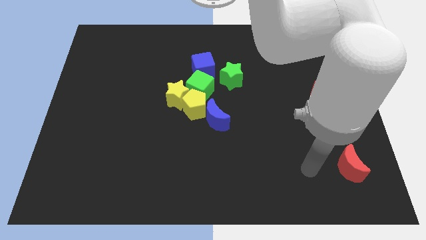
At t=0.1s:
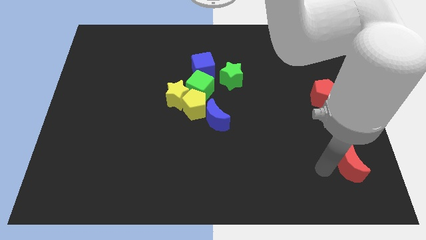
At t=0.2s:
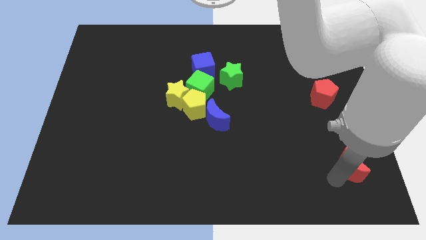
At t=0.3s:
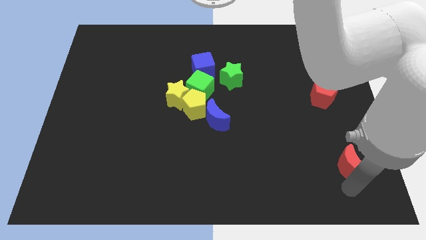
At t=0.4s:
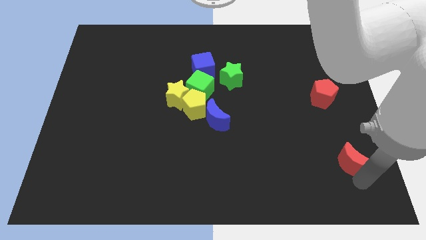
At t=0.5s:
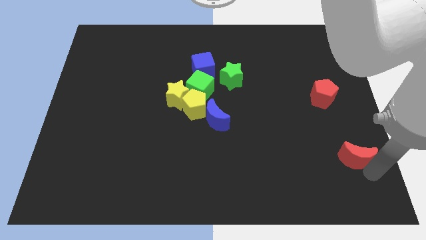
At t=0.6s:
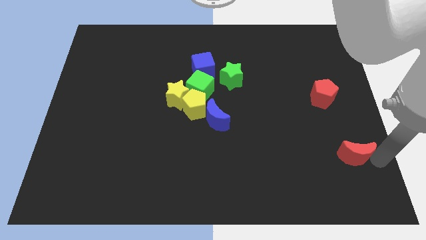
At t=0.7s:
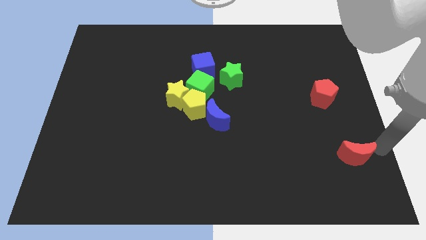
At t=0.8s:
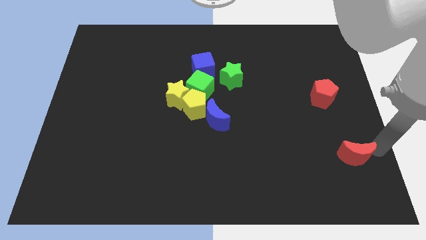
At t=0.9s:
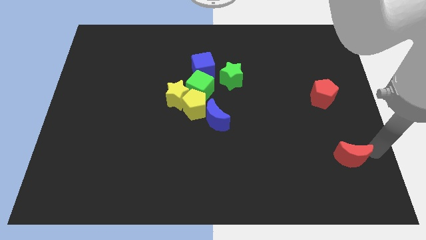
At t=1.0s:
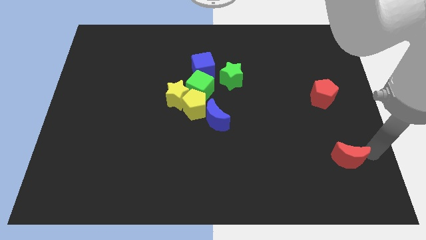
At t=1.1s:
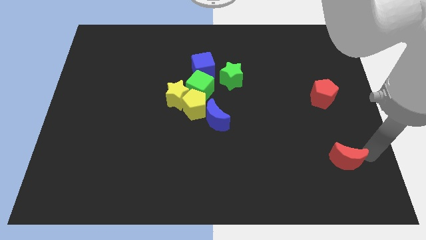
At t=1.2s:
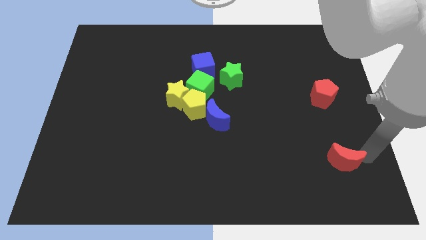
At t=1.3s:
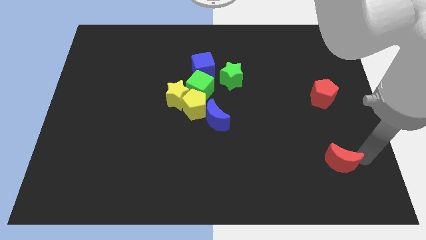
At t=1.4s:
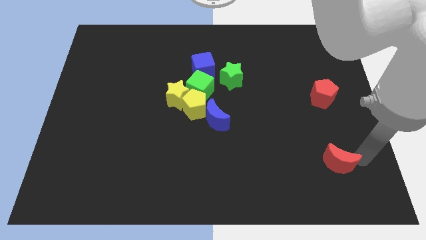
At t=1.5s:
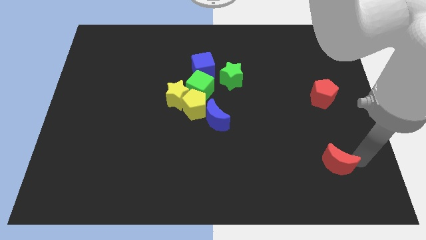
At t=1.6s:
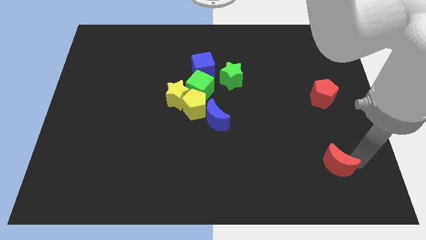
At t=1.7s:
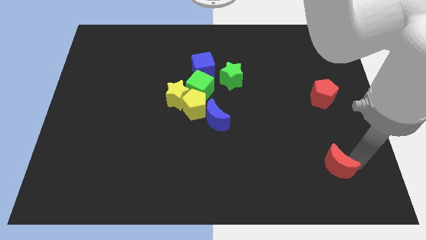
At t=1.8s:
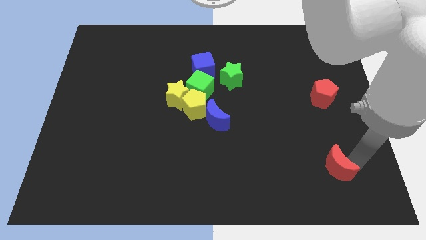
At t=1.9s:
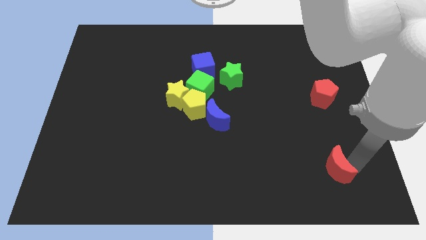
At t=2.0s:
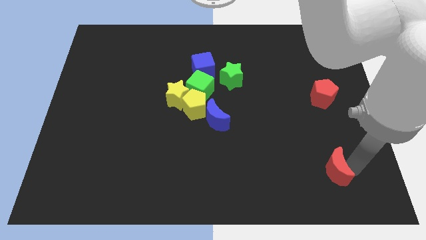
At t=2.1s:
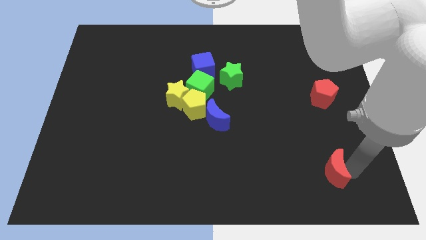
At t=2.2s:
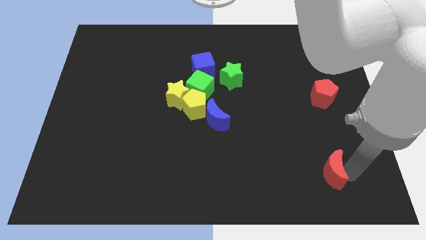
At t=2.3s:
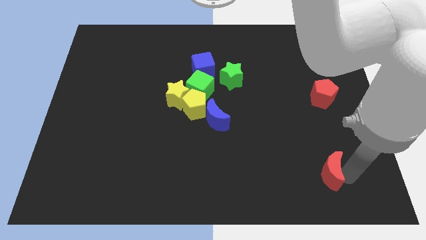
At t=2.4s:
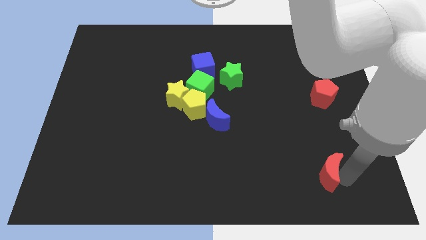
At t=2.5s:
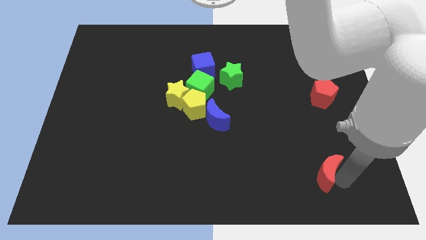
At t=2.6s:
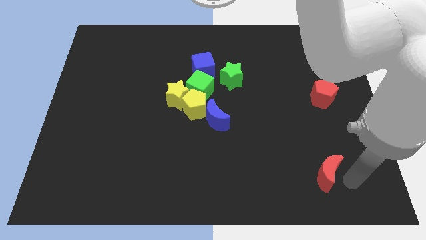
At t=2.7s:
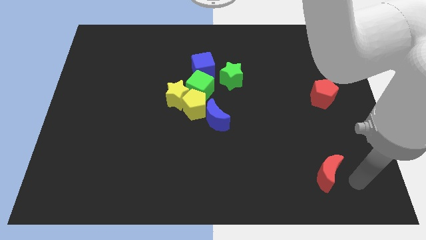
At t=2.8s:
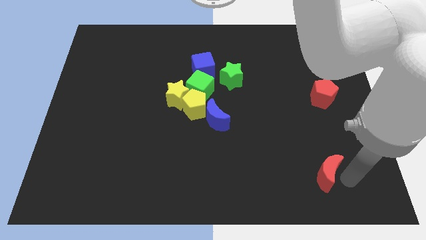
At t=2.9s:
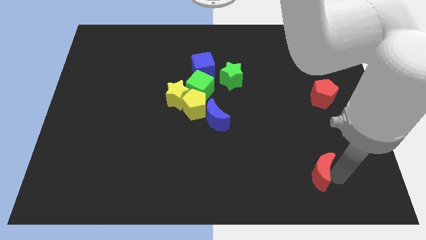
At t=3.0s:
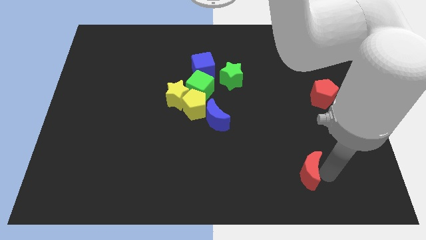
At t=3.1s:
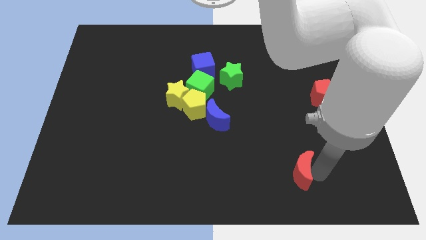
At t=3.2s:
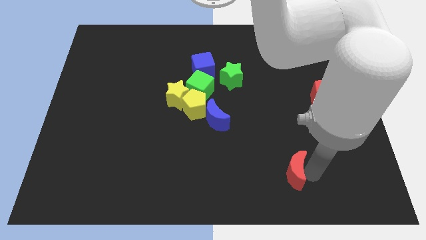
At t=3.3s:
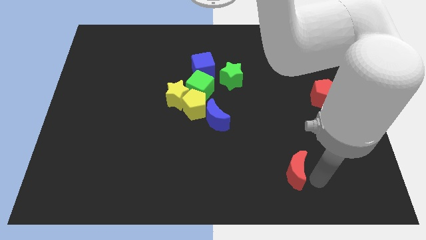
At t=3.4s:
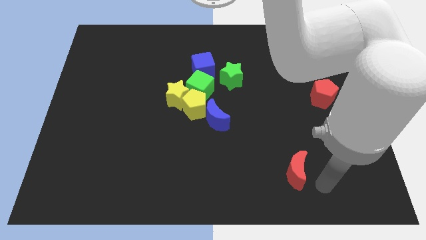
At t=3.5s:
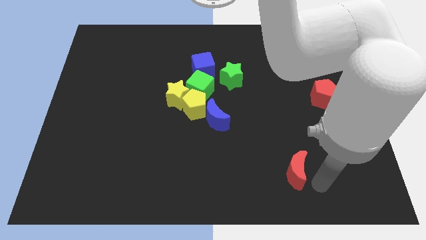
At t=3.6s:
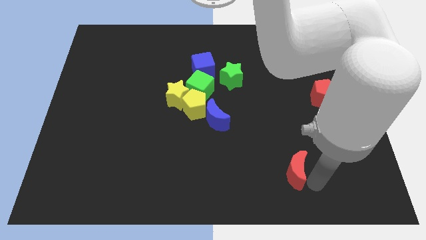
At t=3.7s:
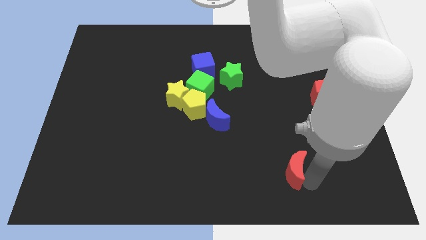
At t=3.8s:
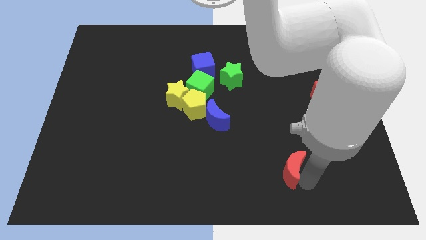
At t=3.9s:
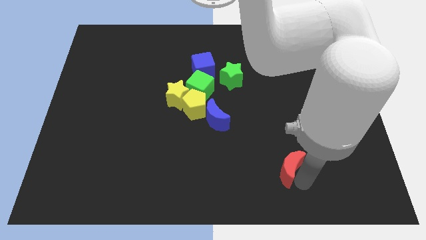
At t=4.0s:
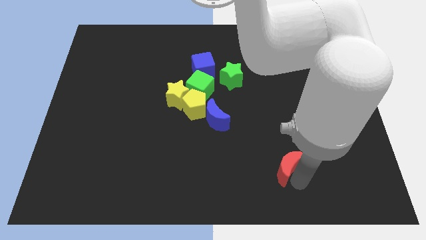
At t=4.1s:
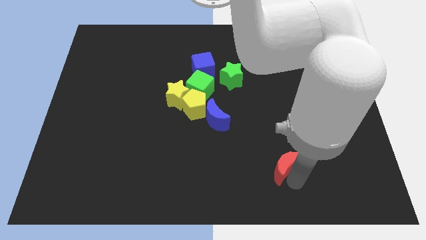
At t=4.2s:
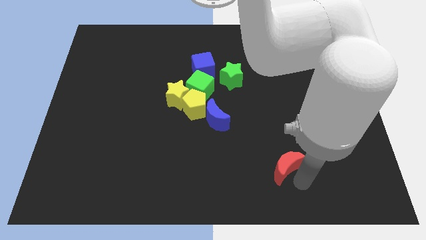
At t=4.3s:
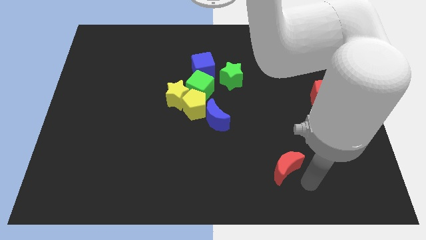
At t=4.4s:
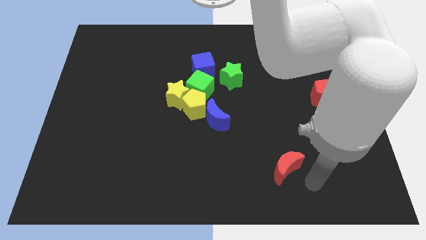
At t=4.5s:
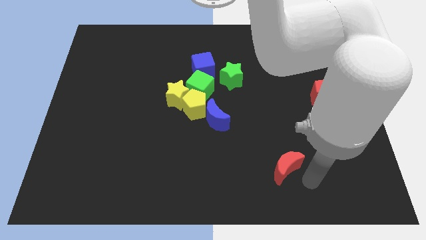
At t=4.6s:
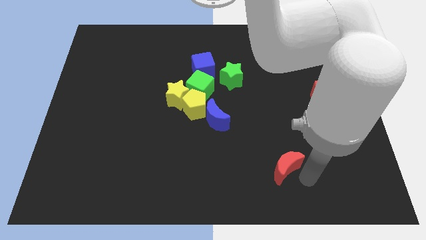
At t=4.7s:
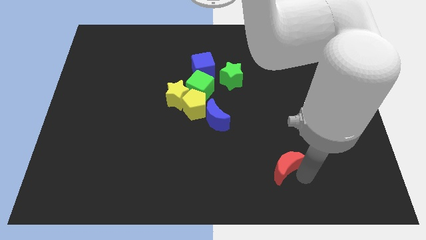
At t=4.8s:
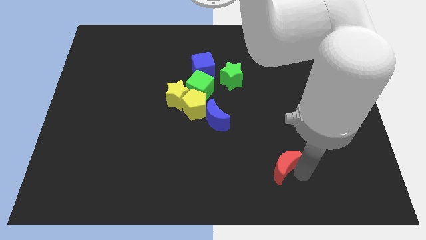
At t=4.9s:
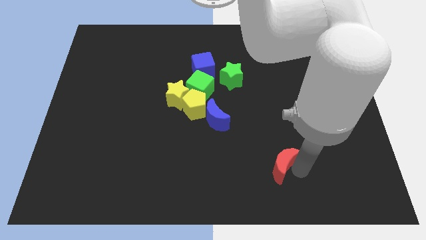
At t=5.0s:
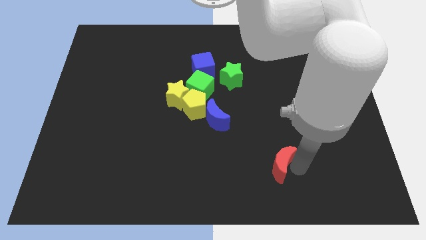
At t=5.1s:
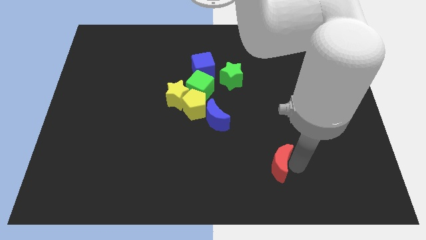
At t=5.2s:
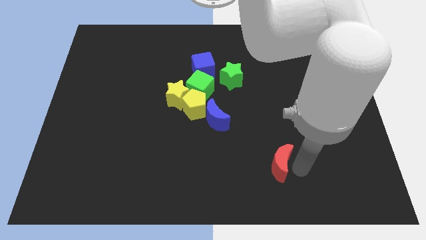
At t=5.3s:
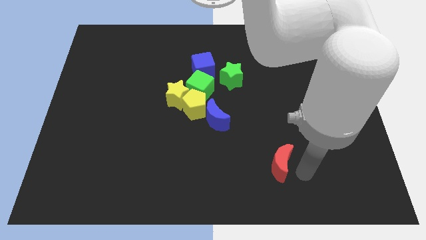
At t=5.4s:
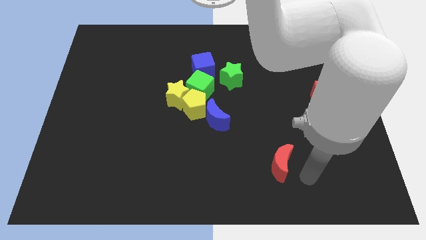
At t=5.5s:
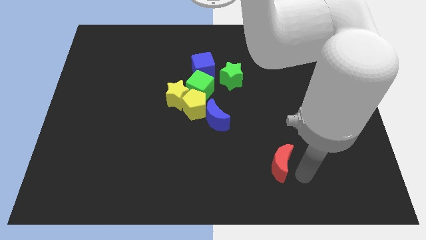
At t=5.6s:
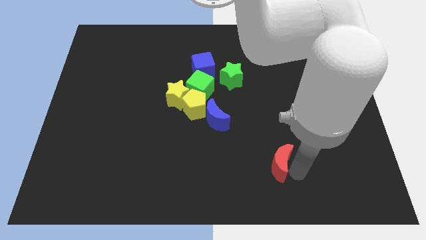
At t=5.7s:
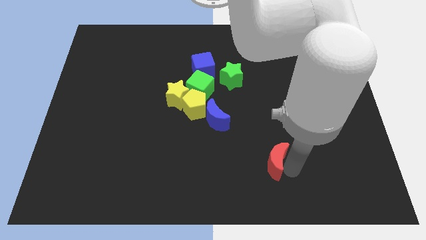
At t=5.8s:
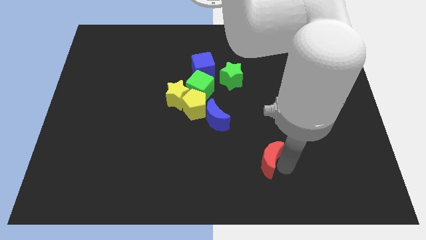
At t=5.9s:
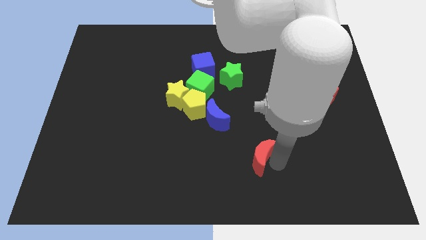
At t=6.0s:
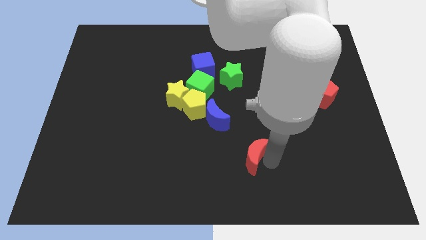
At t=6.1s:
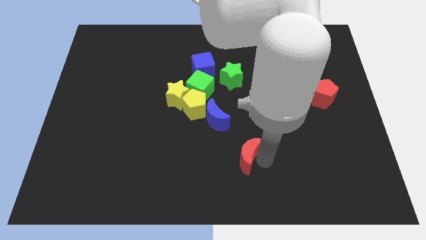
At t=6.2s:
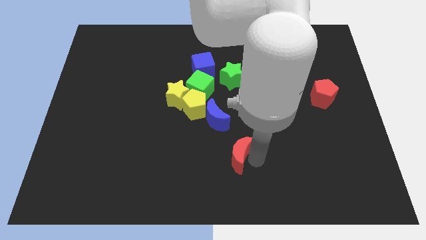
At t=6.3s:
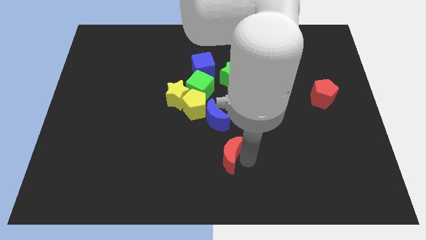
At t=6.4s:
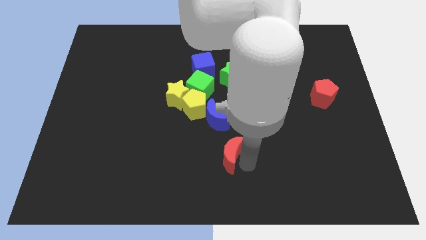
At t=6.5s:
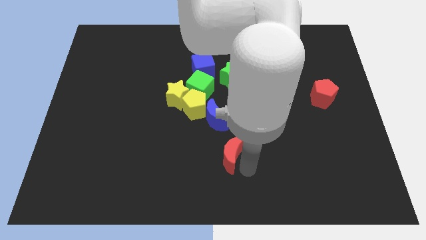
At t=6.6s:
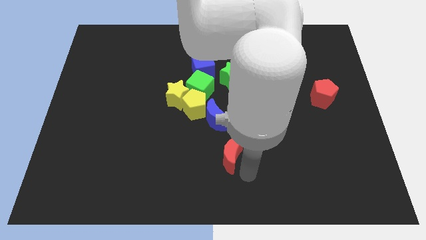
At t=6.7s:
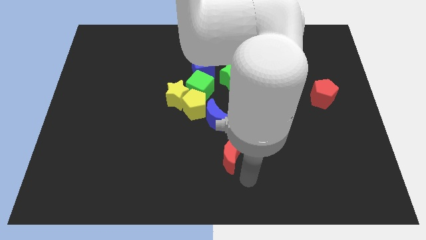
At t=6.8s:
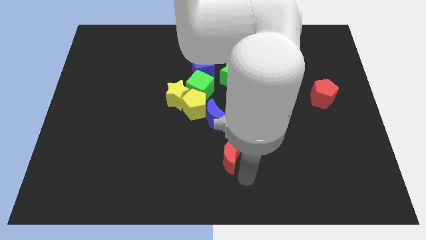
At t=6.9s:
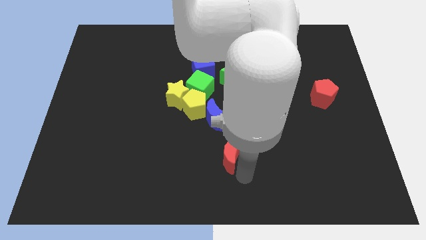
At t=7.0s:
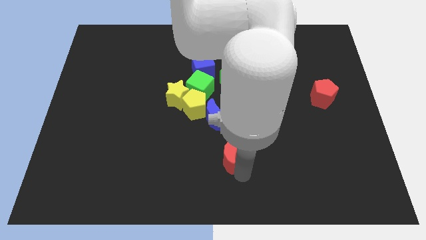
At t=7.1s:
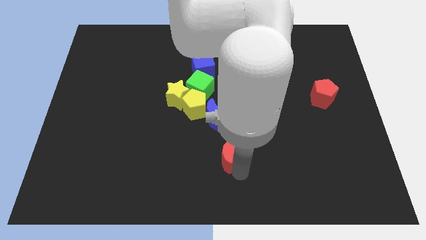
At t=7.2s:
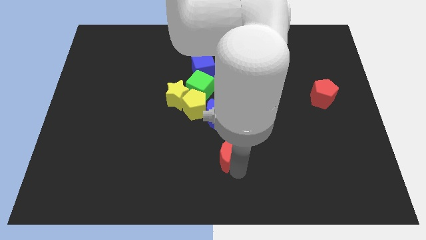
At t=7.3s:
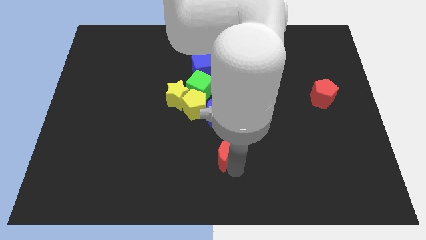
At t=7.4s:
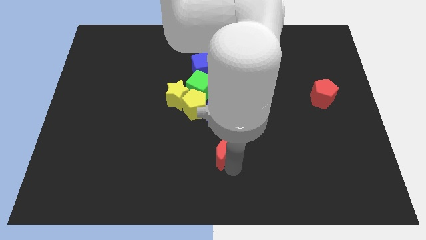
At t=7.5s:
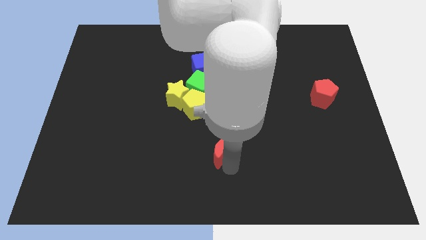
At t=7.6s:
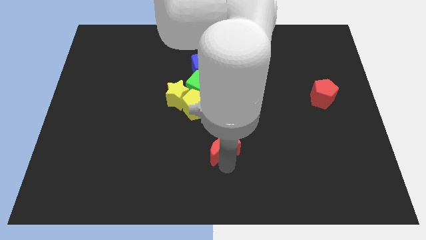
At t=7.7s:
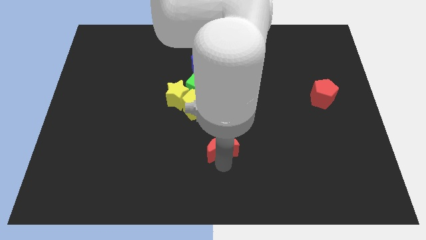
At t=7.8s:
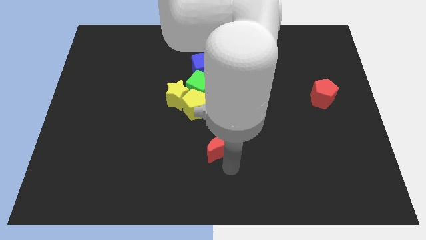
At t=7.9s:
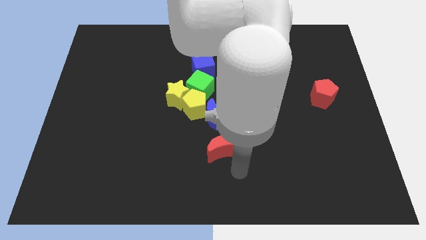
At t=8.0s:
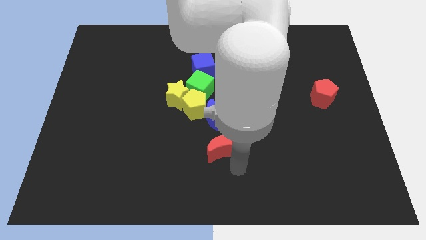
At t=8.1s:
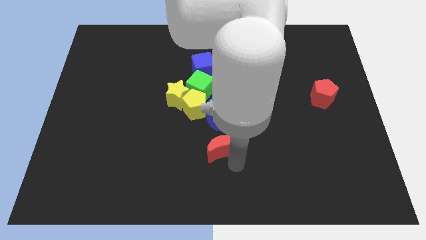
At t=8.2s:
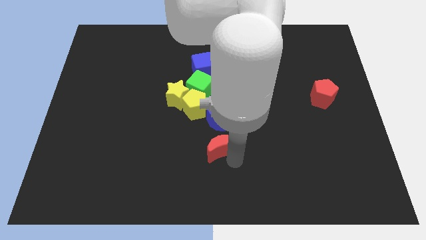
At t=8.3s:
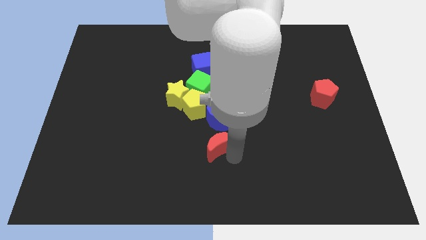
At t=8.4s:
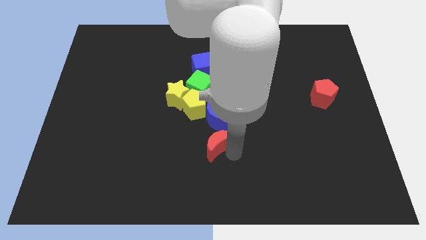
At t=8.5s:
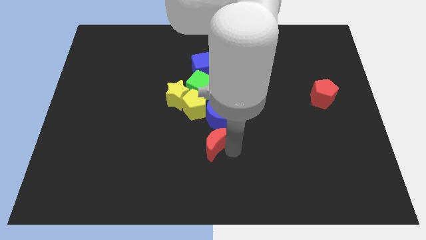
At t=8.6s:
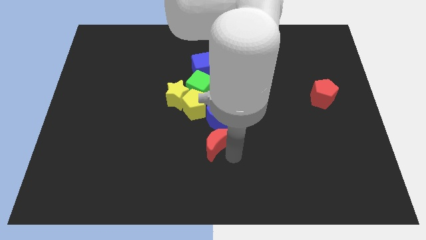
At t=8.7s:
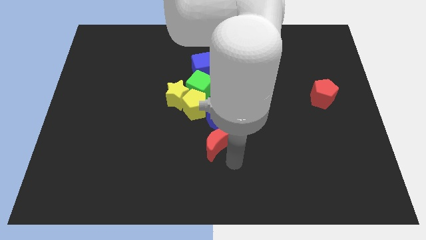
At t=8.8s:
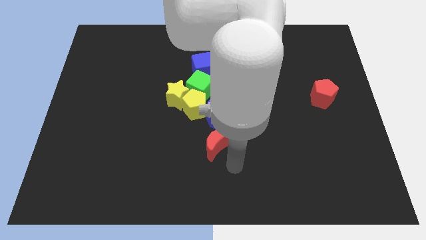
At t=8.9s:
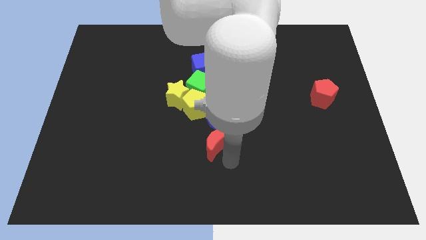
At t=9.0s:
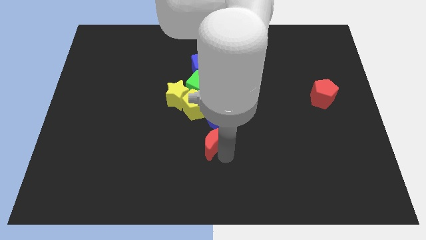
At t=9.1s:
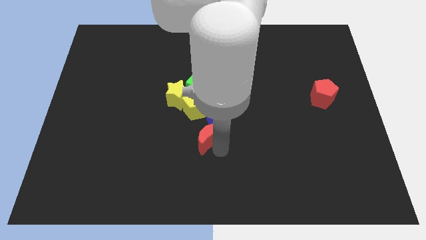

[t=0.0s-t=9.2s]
slide the red moon below the green cube
